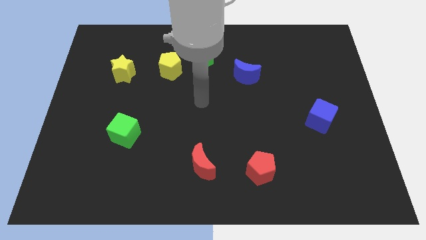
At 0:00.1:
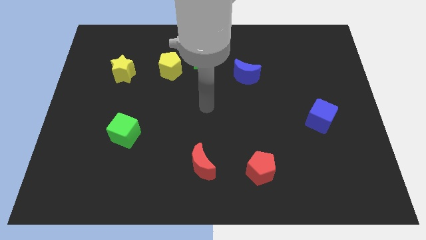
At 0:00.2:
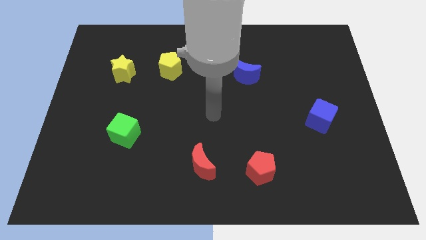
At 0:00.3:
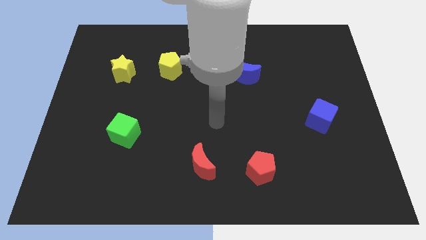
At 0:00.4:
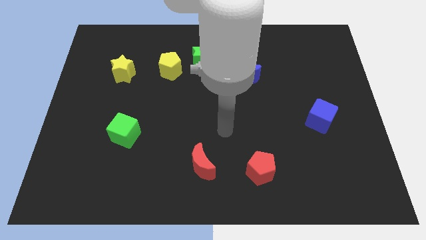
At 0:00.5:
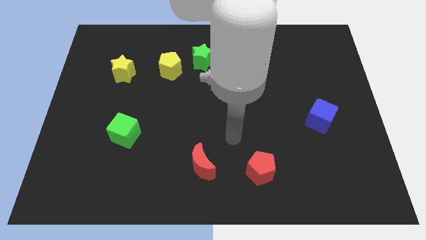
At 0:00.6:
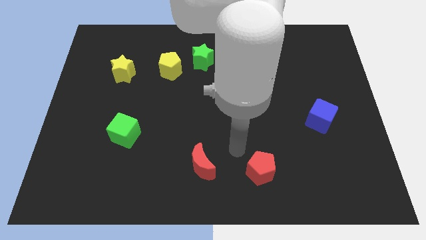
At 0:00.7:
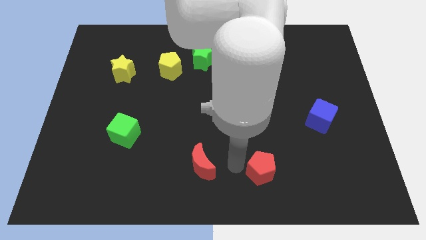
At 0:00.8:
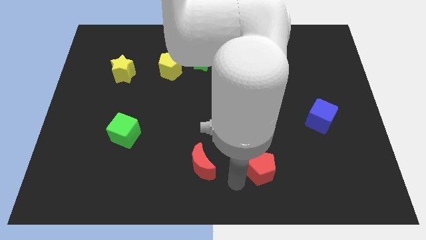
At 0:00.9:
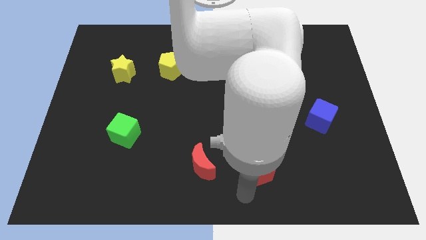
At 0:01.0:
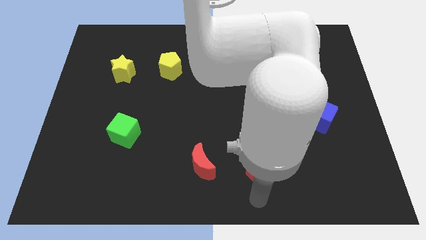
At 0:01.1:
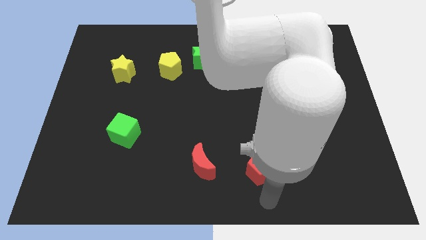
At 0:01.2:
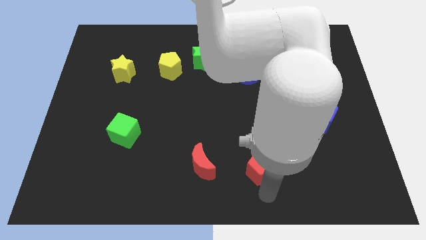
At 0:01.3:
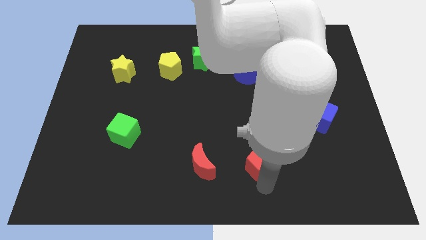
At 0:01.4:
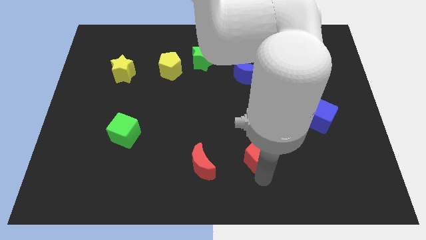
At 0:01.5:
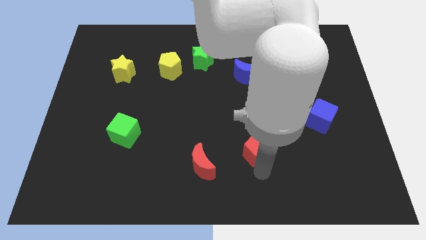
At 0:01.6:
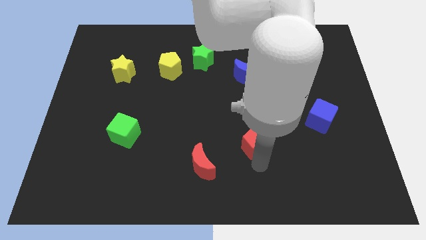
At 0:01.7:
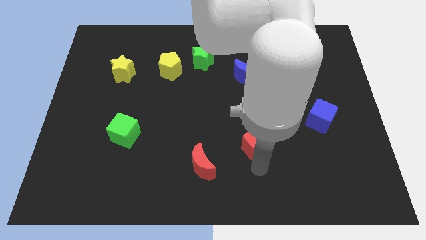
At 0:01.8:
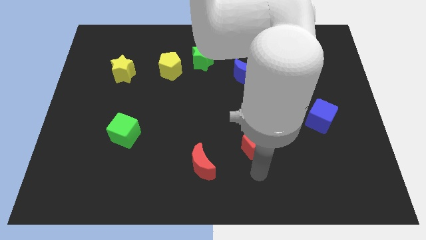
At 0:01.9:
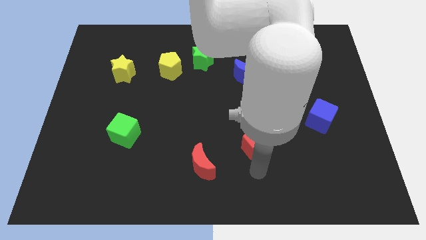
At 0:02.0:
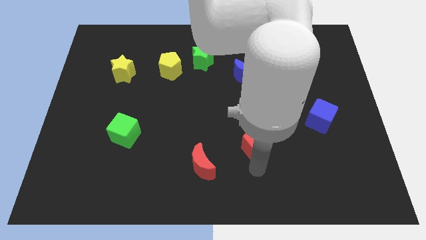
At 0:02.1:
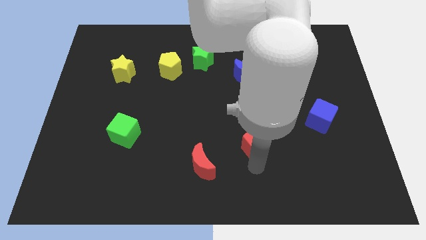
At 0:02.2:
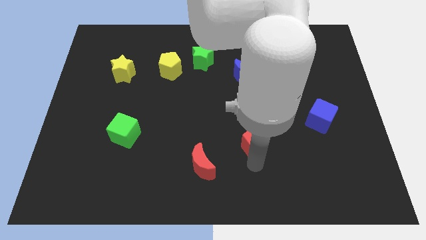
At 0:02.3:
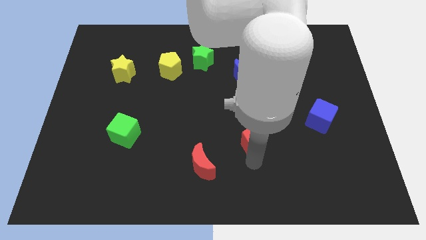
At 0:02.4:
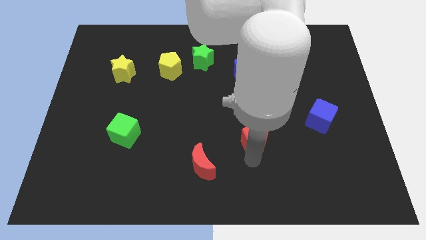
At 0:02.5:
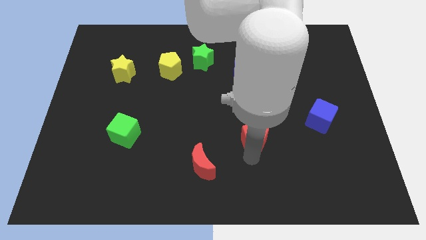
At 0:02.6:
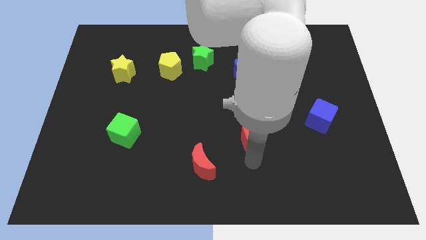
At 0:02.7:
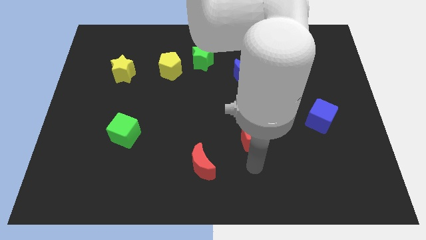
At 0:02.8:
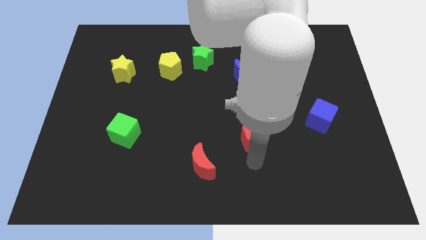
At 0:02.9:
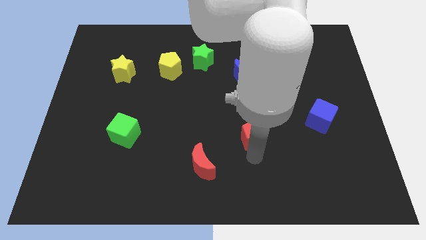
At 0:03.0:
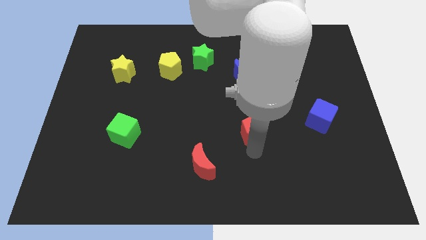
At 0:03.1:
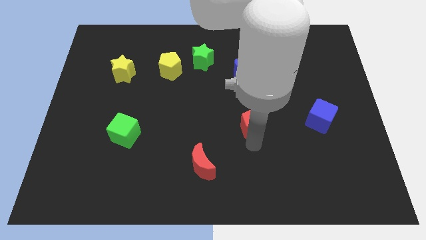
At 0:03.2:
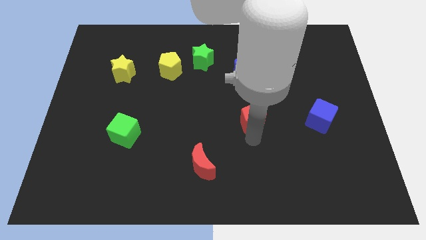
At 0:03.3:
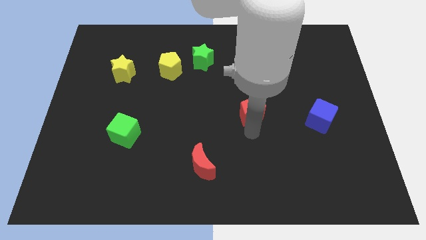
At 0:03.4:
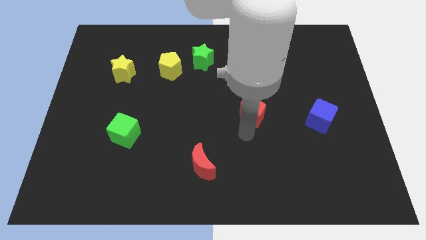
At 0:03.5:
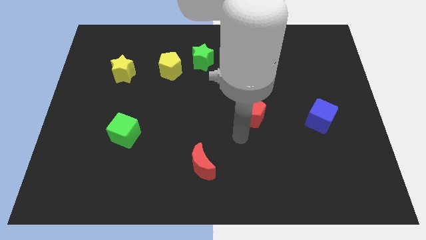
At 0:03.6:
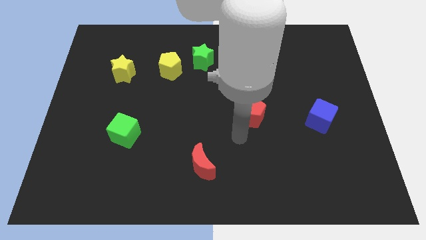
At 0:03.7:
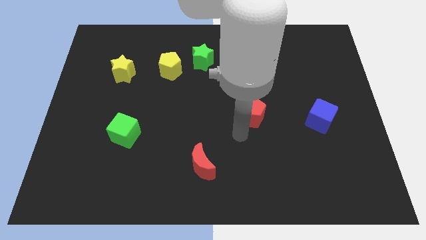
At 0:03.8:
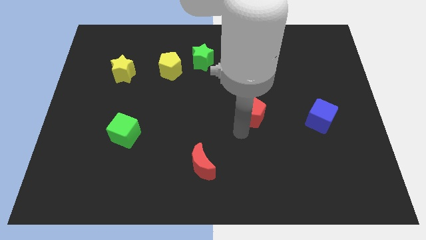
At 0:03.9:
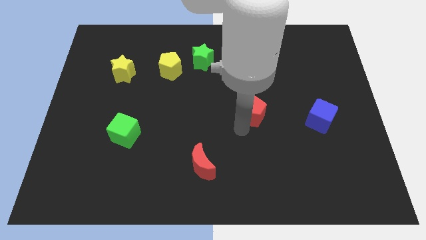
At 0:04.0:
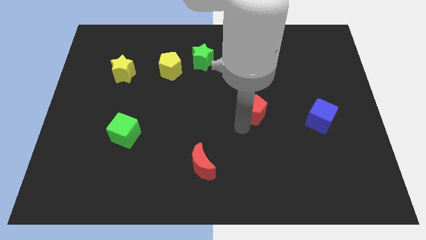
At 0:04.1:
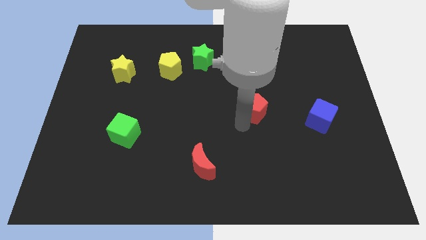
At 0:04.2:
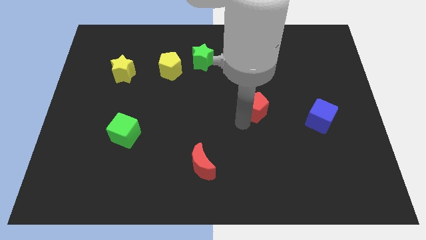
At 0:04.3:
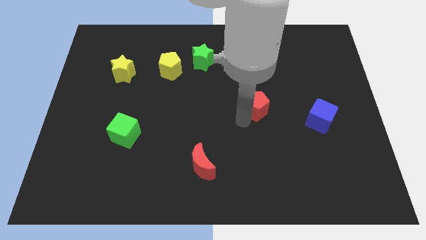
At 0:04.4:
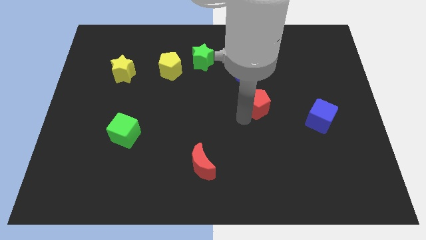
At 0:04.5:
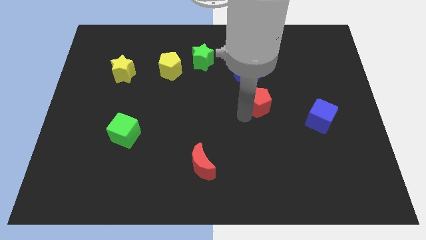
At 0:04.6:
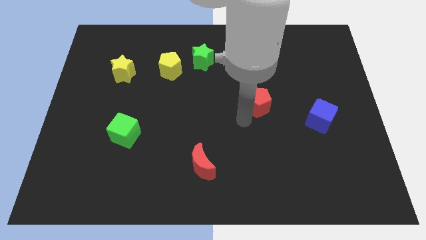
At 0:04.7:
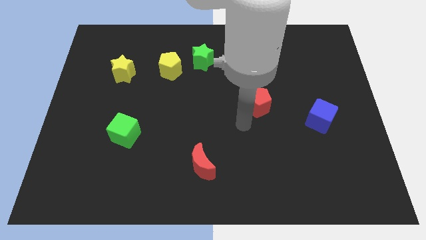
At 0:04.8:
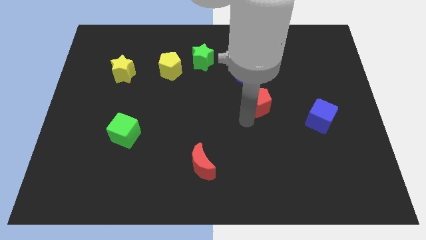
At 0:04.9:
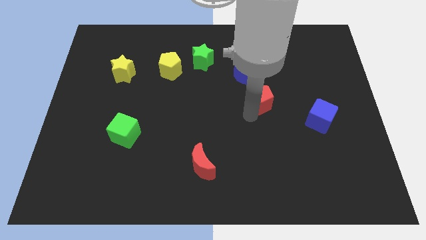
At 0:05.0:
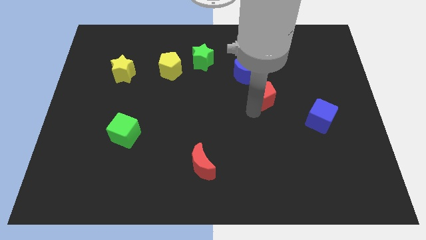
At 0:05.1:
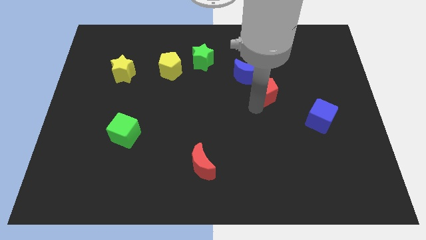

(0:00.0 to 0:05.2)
move the red pentagon upwards

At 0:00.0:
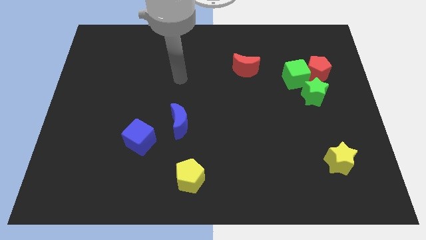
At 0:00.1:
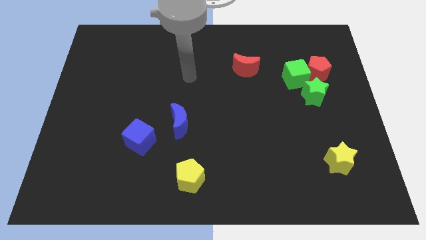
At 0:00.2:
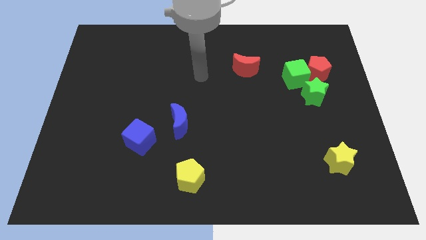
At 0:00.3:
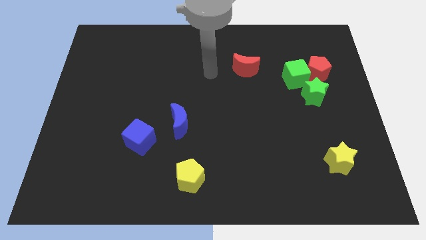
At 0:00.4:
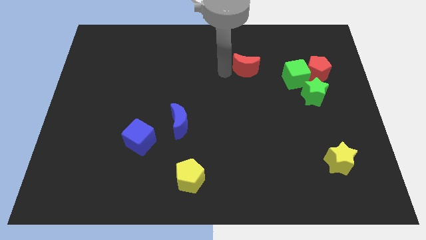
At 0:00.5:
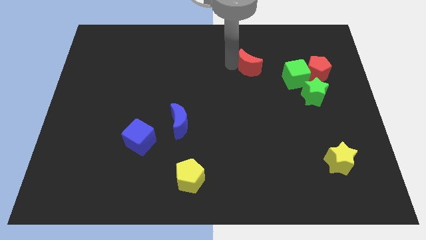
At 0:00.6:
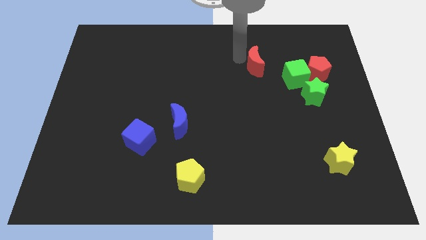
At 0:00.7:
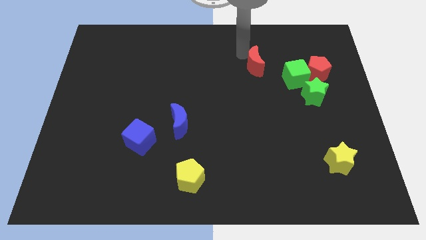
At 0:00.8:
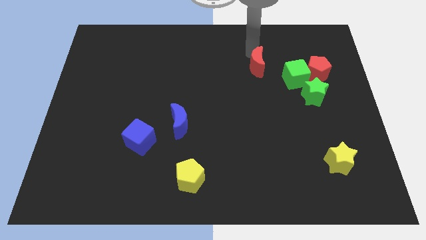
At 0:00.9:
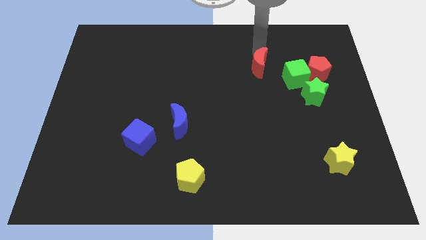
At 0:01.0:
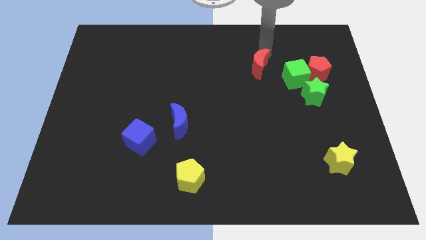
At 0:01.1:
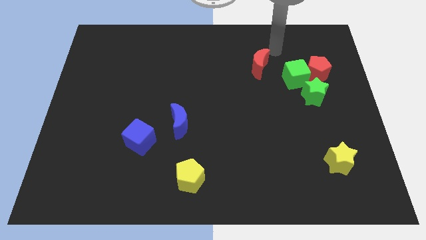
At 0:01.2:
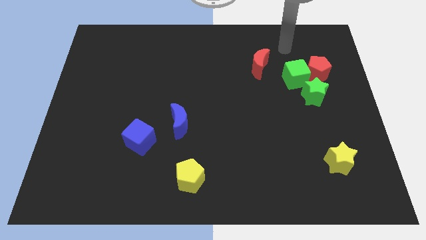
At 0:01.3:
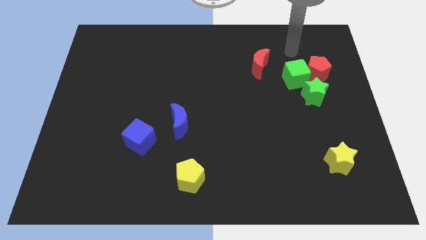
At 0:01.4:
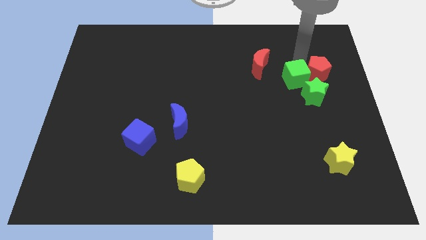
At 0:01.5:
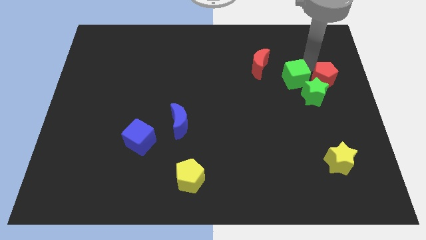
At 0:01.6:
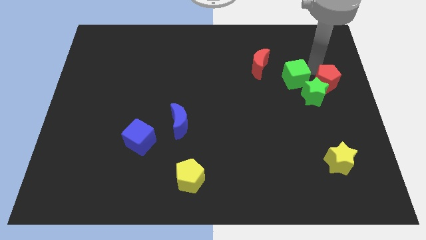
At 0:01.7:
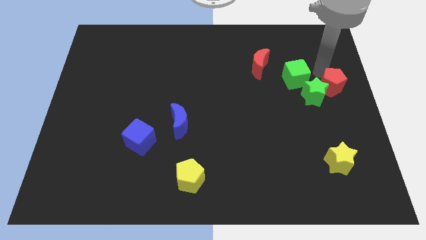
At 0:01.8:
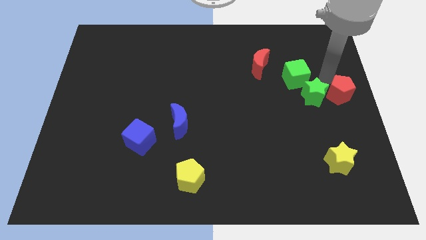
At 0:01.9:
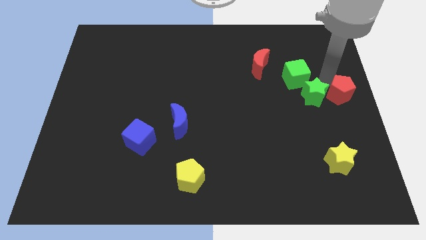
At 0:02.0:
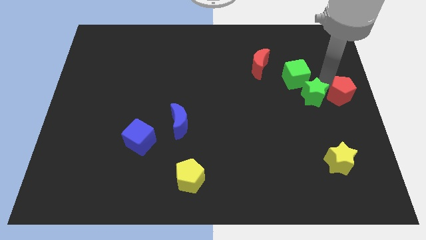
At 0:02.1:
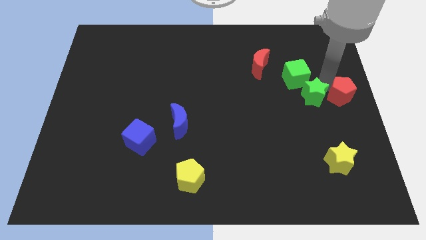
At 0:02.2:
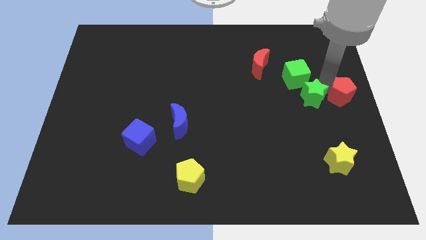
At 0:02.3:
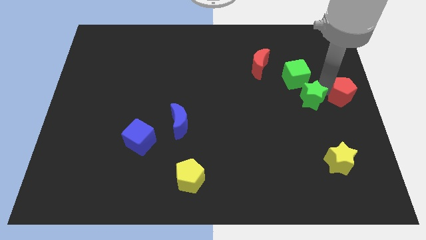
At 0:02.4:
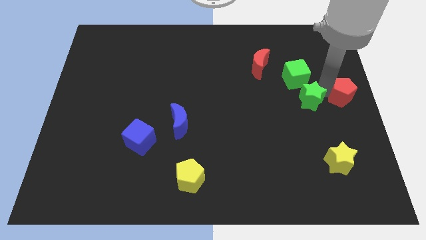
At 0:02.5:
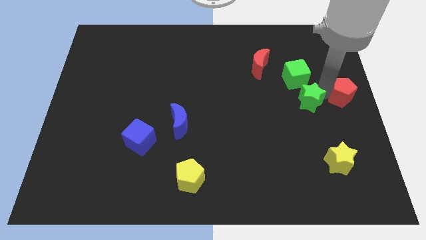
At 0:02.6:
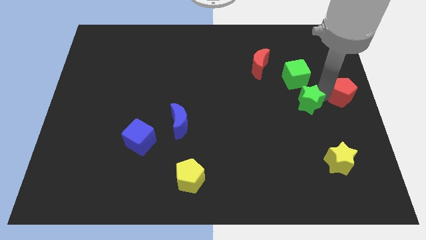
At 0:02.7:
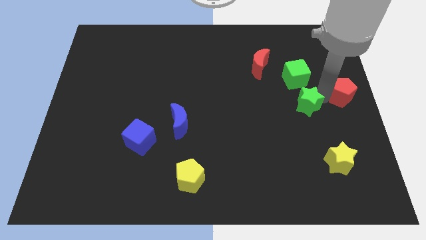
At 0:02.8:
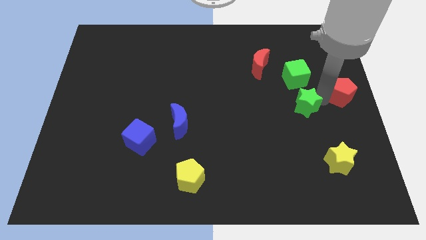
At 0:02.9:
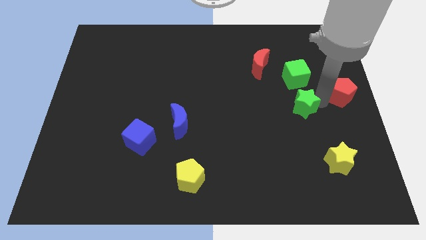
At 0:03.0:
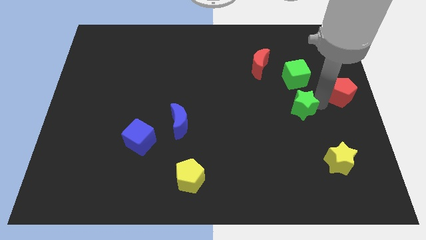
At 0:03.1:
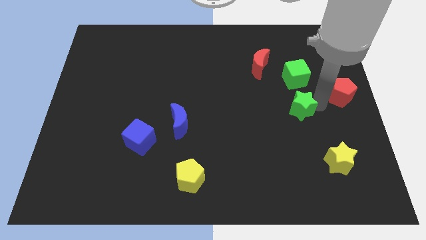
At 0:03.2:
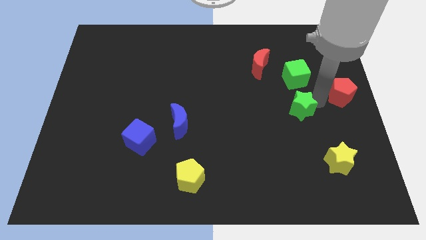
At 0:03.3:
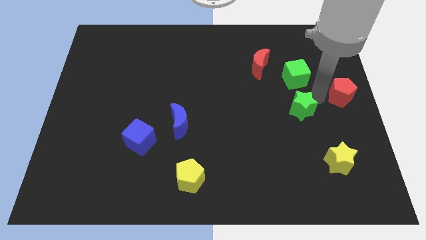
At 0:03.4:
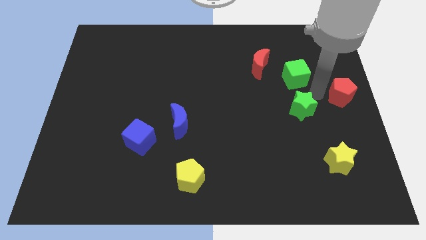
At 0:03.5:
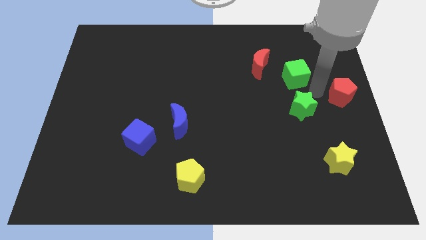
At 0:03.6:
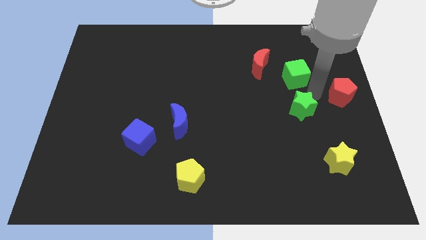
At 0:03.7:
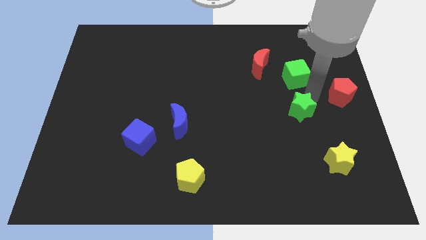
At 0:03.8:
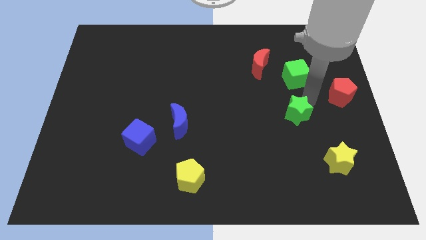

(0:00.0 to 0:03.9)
move the green star somewhat down and then to the left
